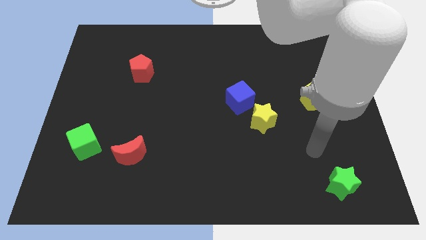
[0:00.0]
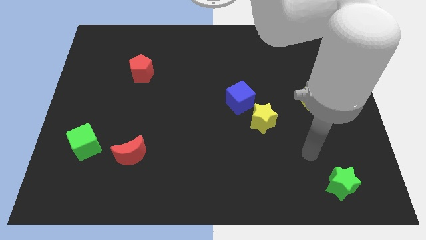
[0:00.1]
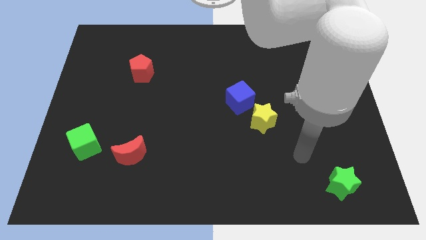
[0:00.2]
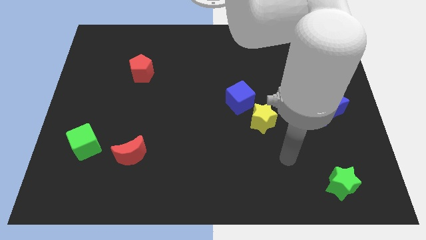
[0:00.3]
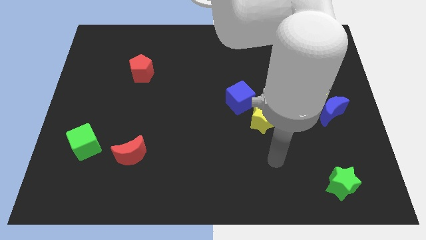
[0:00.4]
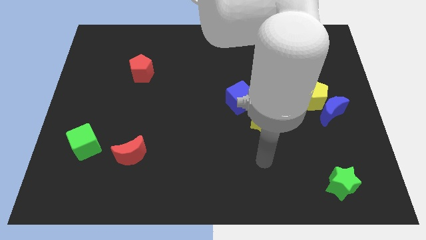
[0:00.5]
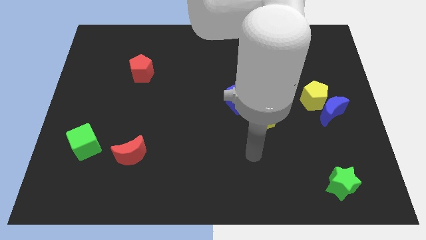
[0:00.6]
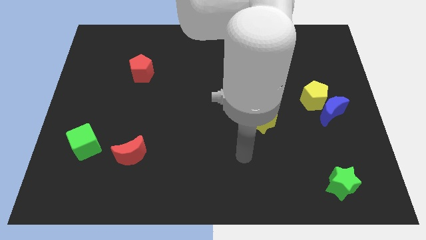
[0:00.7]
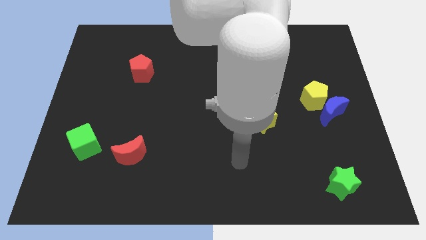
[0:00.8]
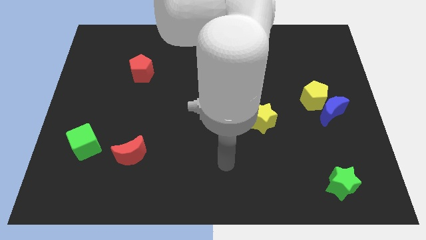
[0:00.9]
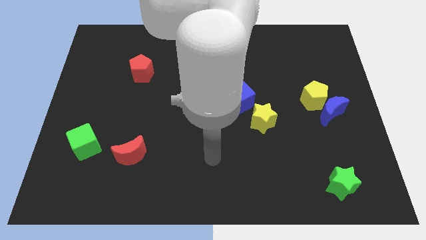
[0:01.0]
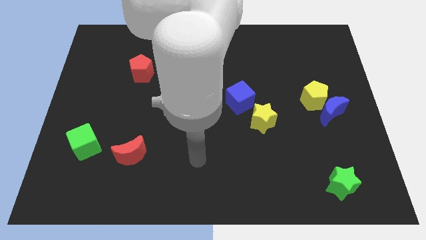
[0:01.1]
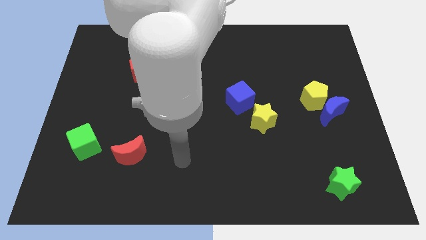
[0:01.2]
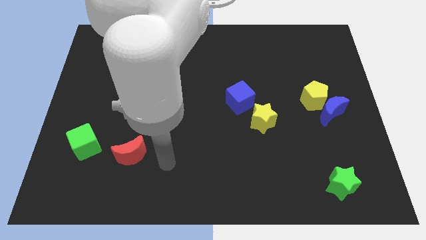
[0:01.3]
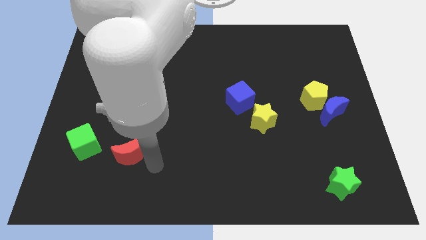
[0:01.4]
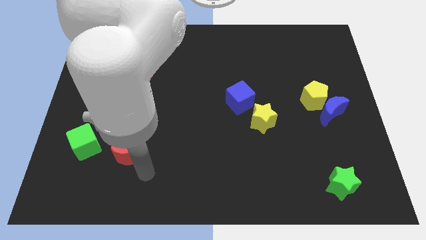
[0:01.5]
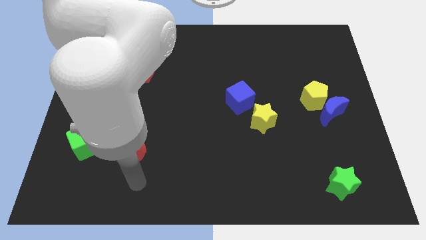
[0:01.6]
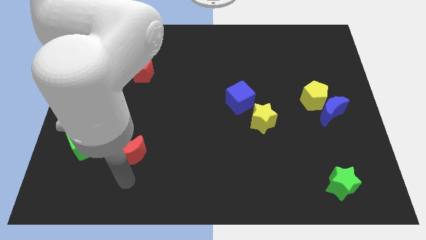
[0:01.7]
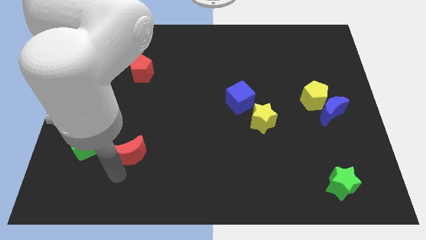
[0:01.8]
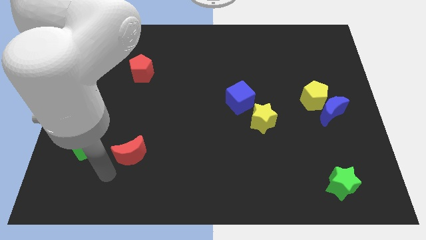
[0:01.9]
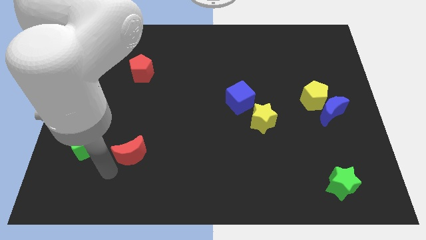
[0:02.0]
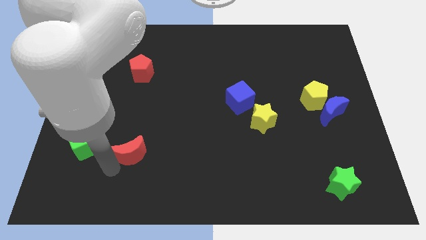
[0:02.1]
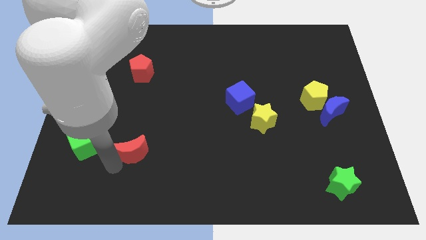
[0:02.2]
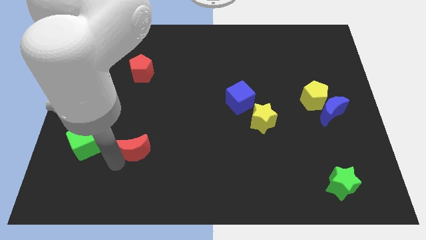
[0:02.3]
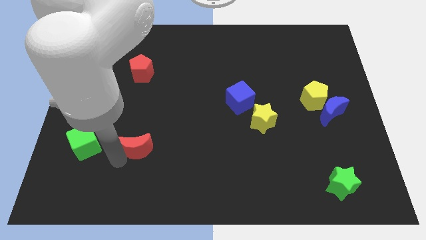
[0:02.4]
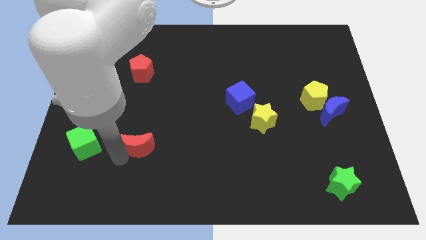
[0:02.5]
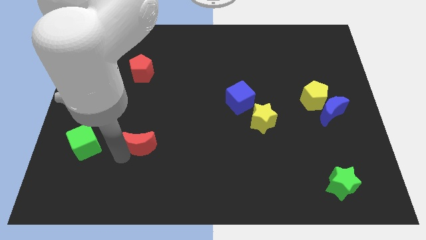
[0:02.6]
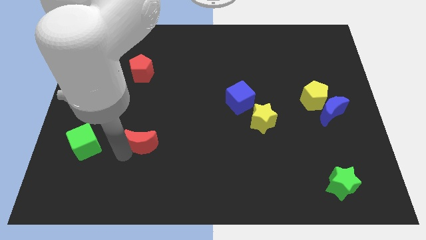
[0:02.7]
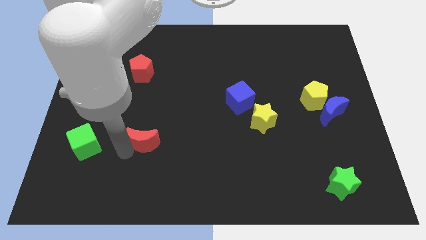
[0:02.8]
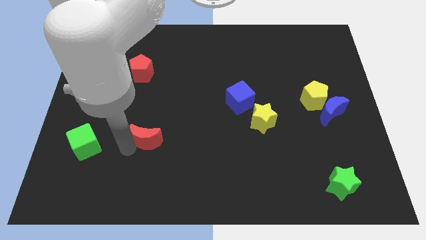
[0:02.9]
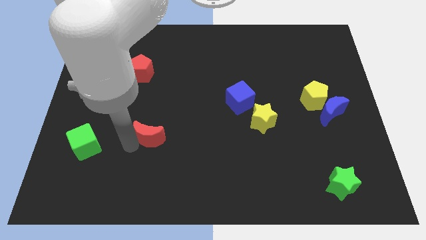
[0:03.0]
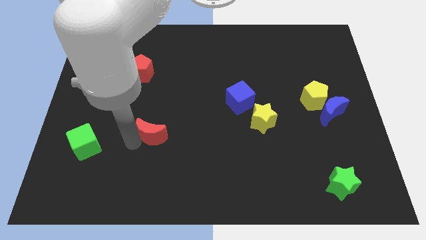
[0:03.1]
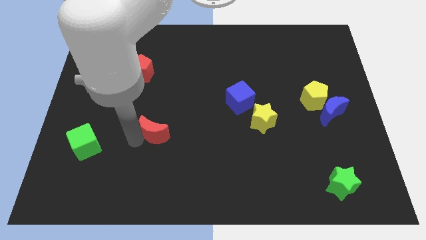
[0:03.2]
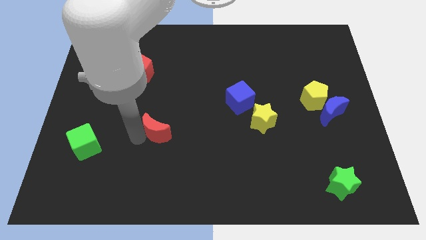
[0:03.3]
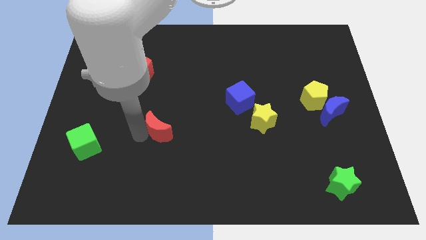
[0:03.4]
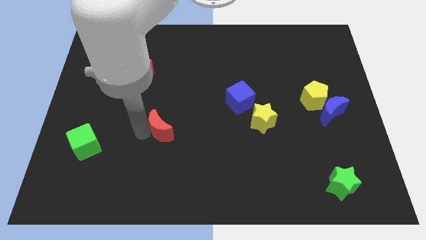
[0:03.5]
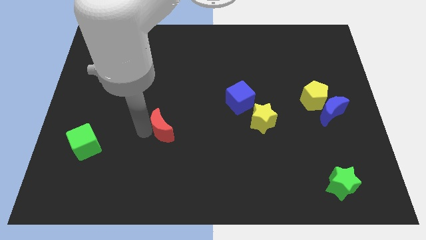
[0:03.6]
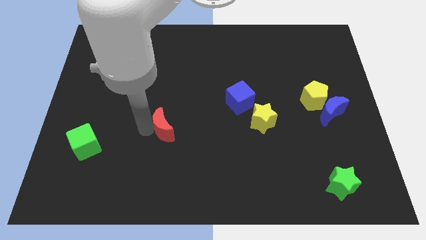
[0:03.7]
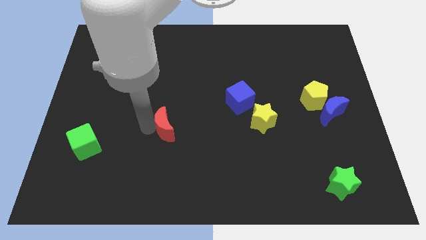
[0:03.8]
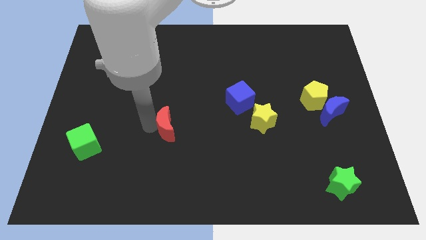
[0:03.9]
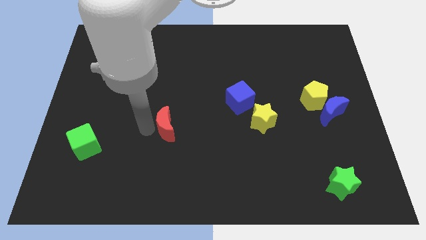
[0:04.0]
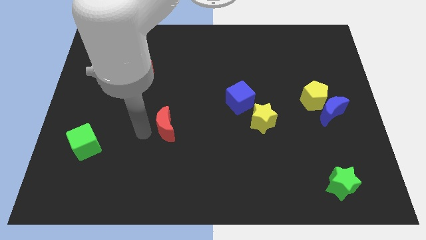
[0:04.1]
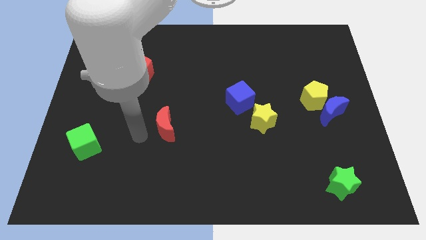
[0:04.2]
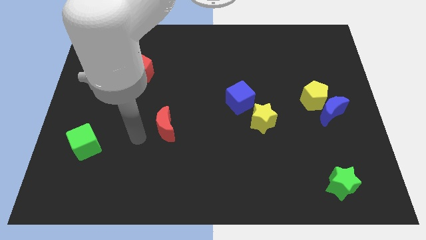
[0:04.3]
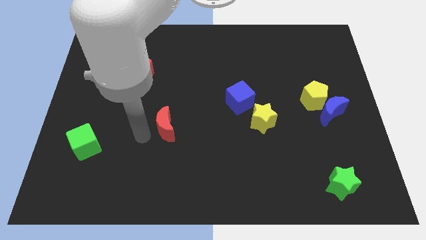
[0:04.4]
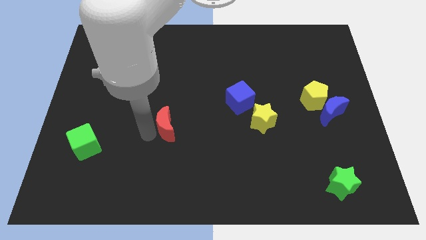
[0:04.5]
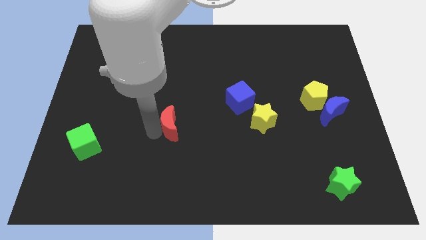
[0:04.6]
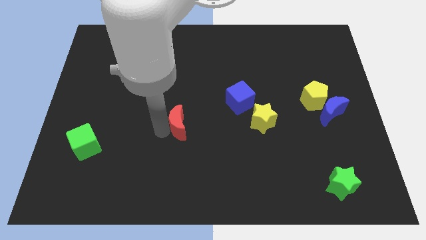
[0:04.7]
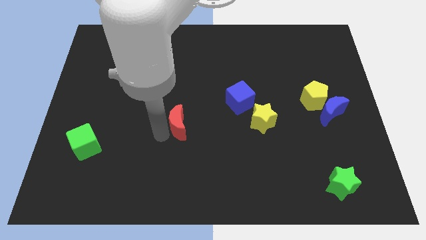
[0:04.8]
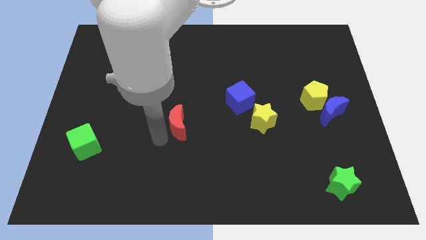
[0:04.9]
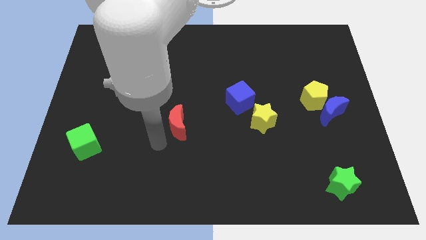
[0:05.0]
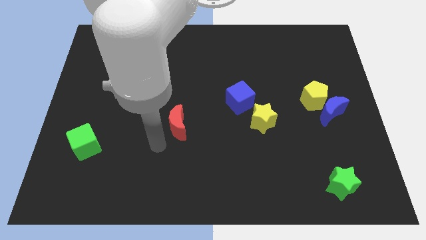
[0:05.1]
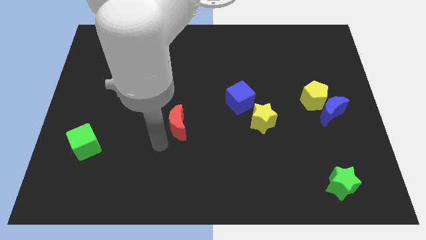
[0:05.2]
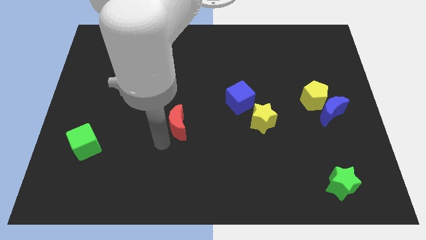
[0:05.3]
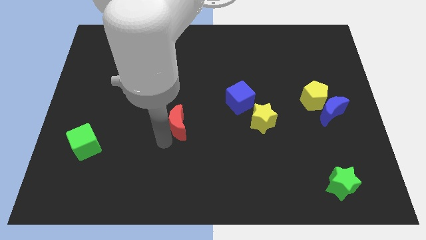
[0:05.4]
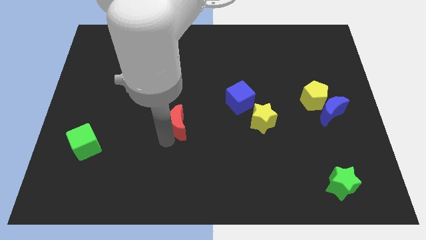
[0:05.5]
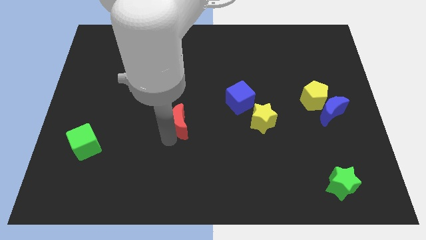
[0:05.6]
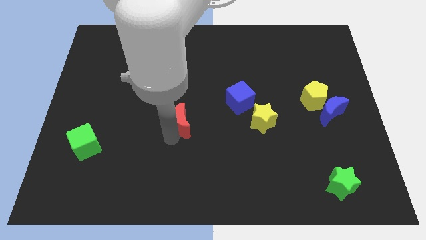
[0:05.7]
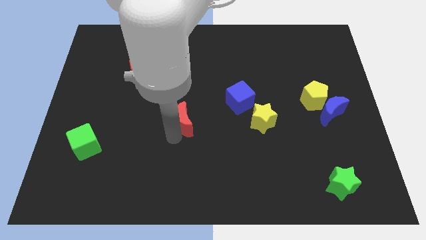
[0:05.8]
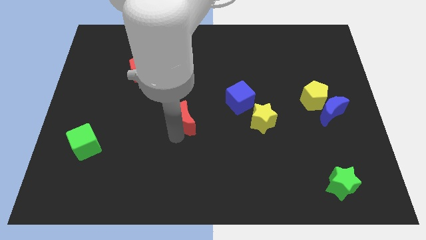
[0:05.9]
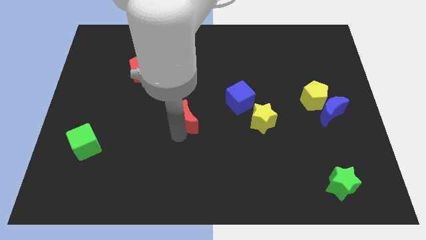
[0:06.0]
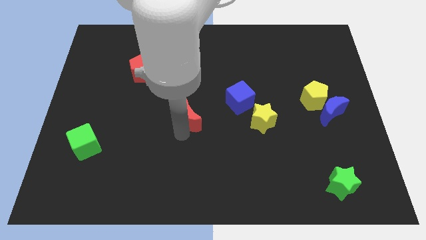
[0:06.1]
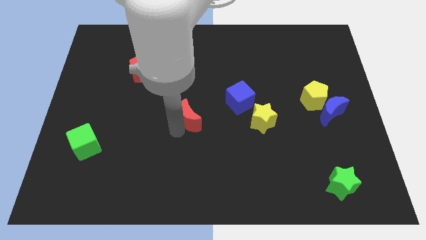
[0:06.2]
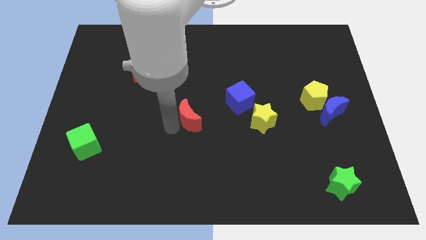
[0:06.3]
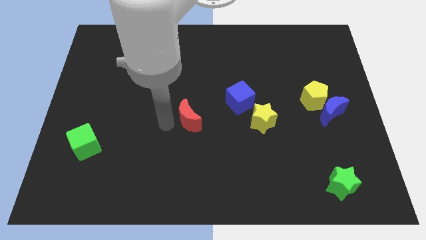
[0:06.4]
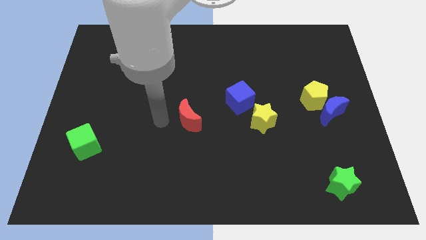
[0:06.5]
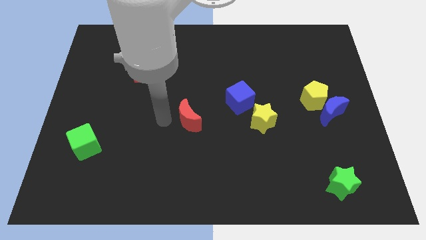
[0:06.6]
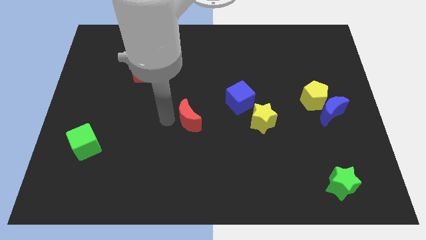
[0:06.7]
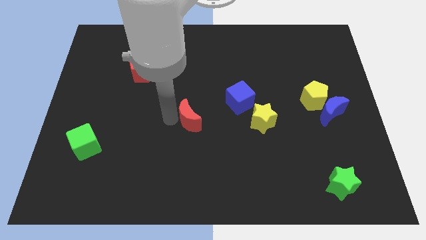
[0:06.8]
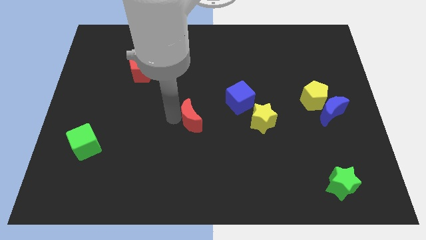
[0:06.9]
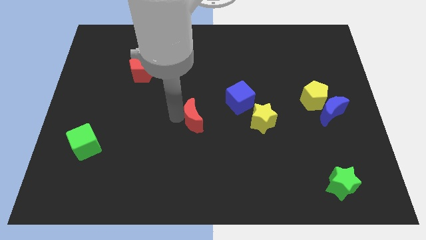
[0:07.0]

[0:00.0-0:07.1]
put the red moon just left of the yellow star

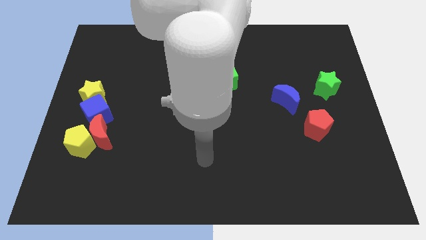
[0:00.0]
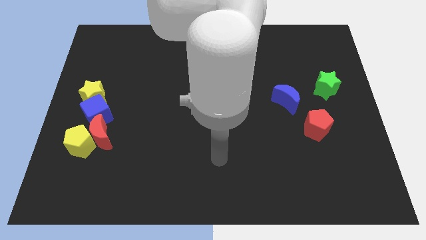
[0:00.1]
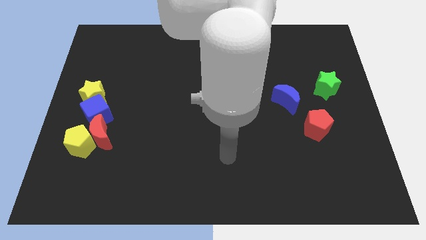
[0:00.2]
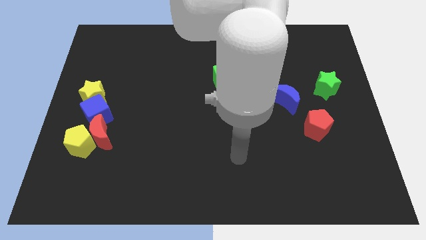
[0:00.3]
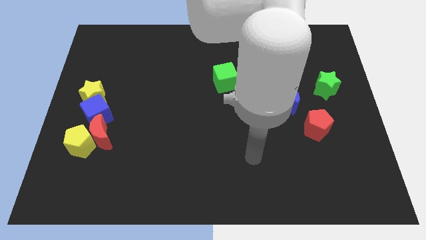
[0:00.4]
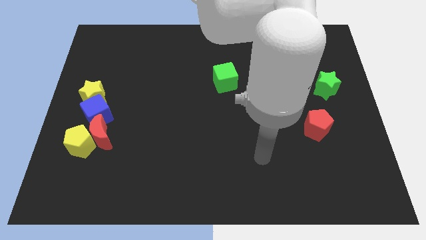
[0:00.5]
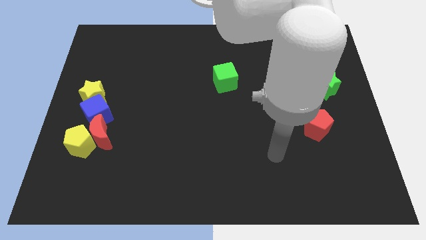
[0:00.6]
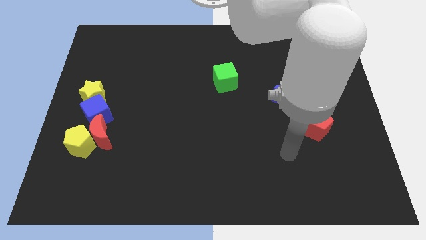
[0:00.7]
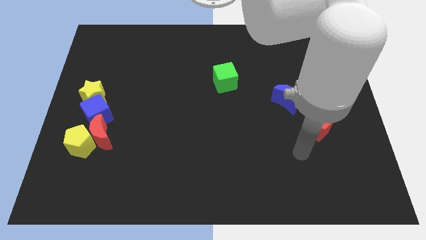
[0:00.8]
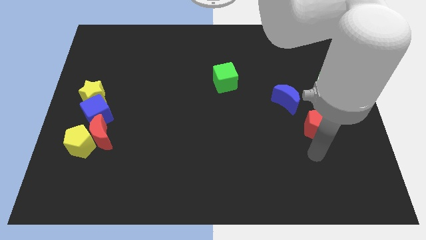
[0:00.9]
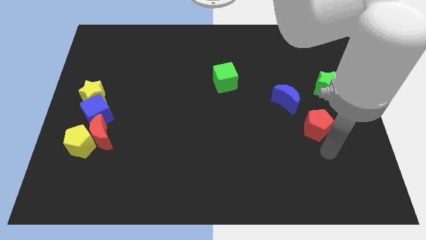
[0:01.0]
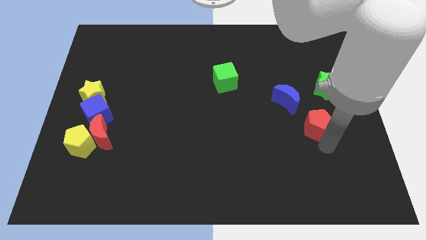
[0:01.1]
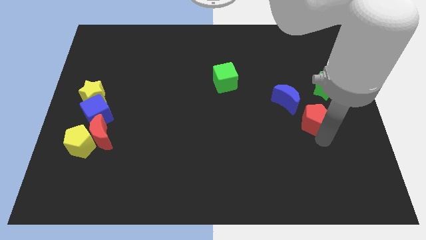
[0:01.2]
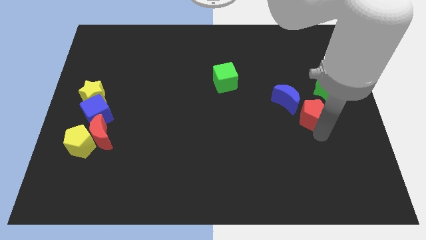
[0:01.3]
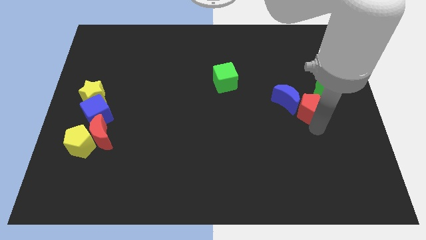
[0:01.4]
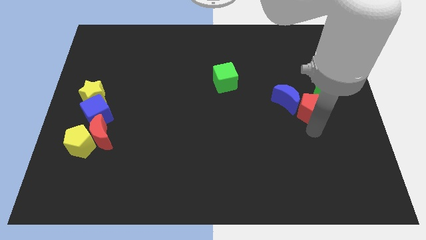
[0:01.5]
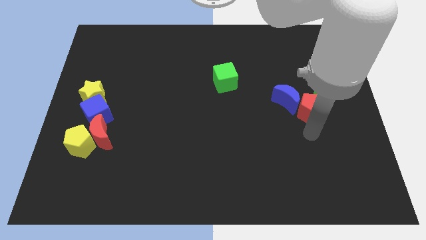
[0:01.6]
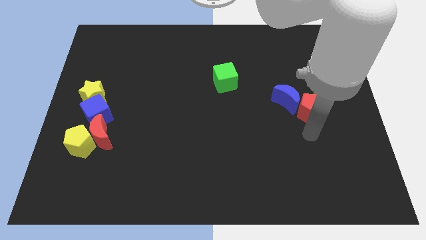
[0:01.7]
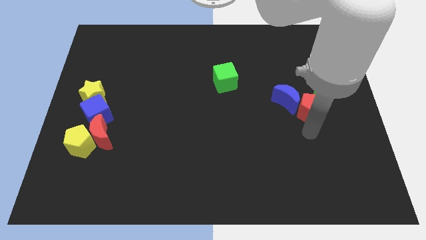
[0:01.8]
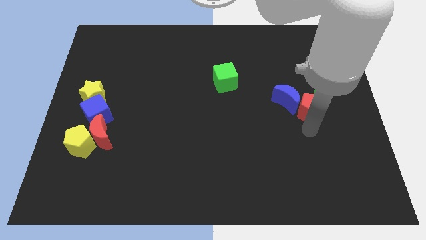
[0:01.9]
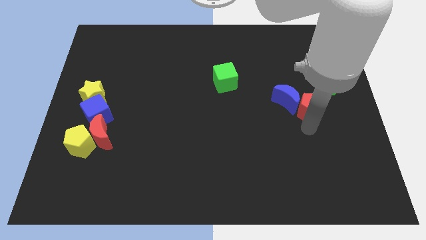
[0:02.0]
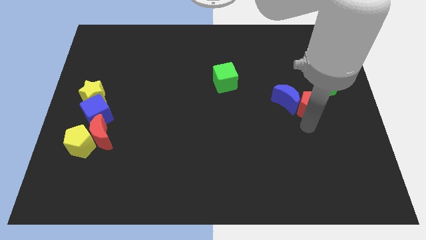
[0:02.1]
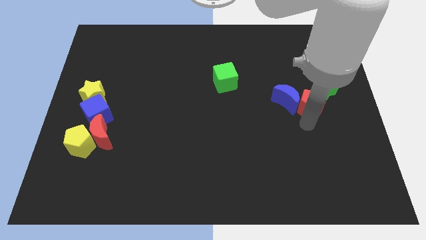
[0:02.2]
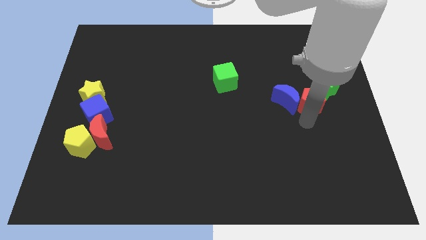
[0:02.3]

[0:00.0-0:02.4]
put the red pentagon diagonally up and to the right of the blue moon
